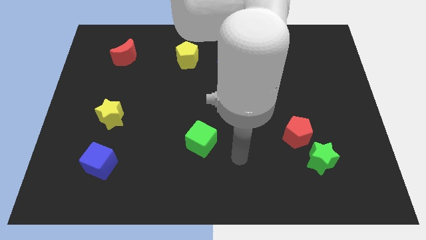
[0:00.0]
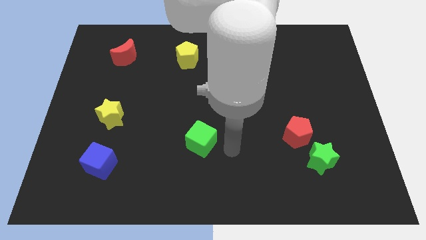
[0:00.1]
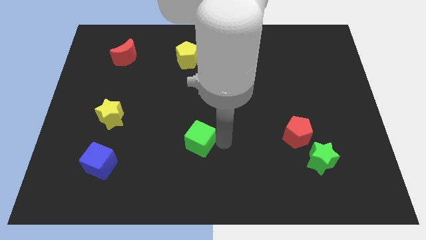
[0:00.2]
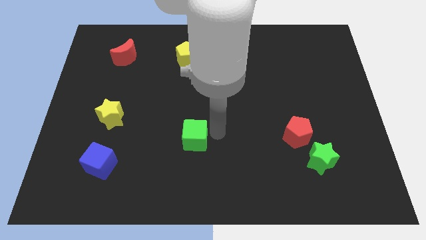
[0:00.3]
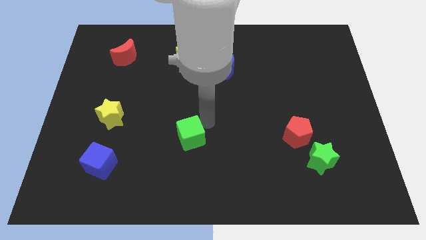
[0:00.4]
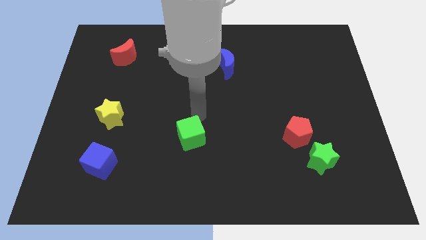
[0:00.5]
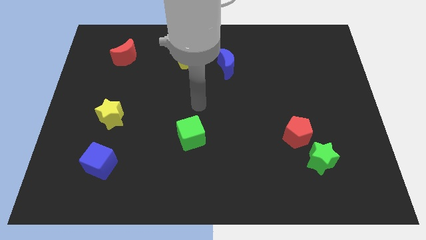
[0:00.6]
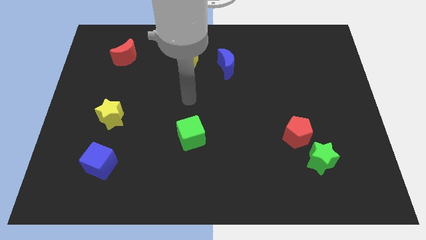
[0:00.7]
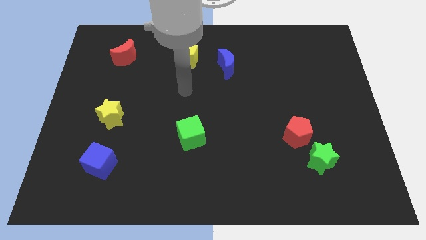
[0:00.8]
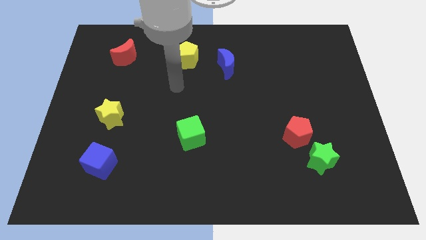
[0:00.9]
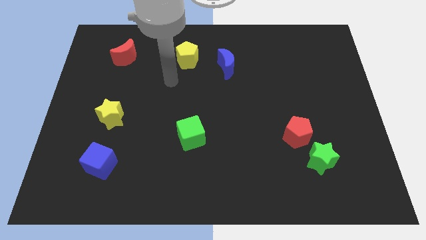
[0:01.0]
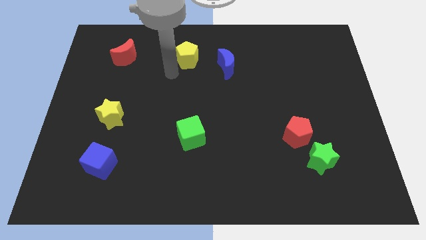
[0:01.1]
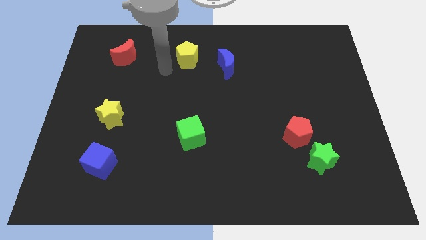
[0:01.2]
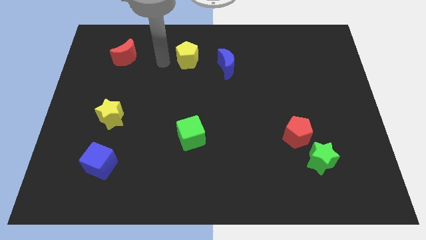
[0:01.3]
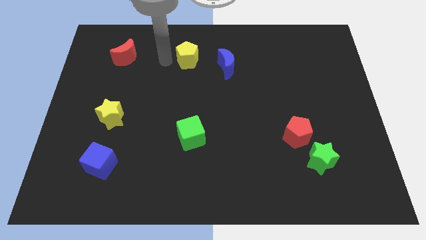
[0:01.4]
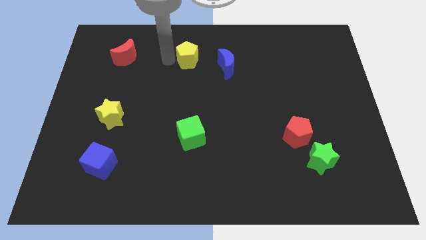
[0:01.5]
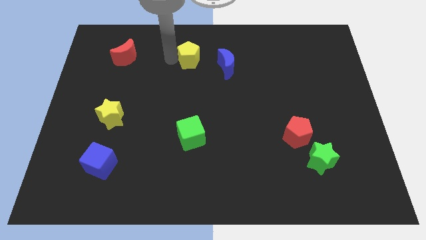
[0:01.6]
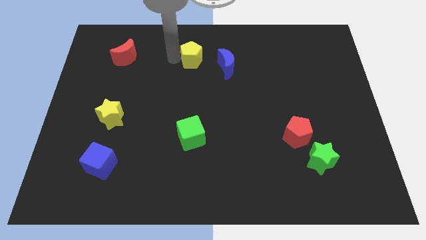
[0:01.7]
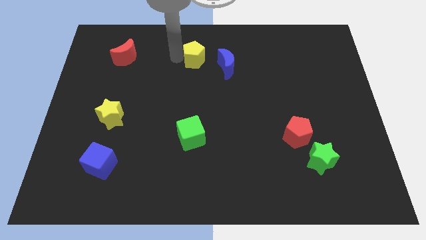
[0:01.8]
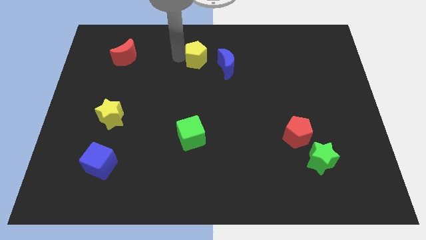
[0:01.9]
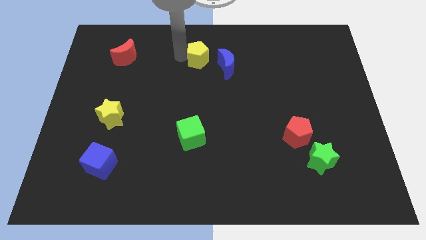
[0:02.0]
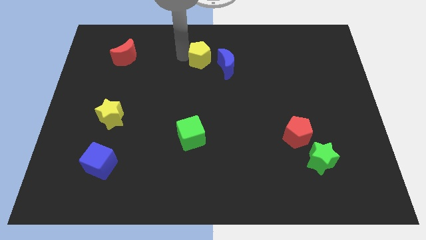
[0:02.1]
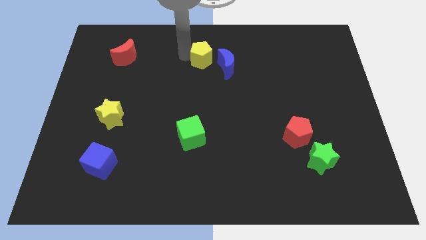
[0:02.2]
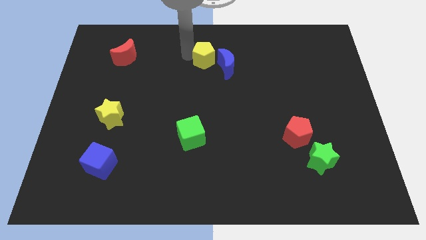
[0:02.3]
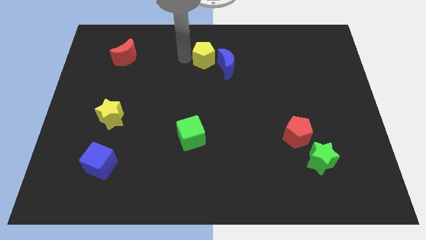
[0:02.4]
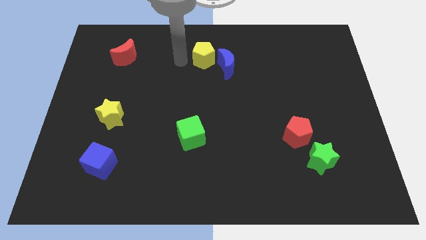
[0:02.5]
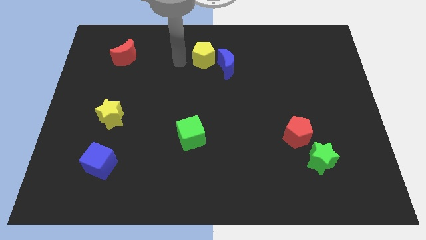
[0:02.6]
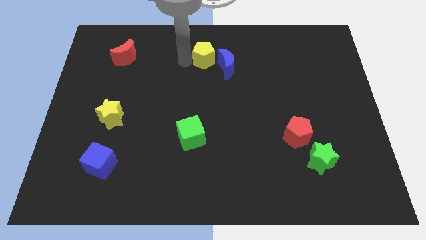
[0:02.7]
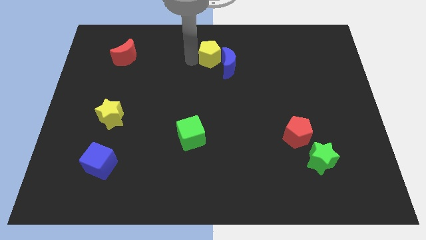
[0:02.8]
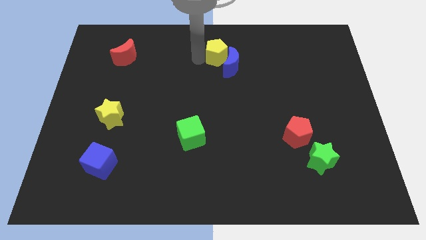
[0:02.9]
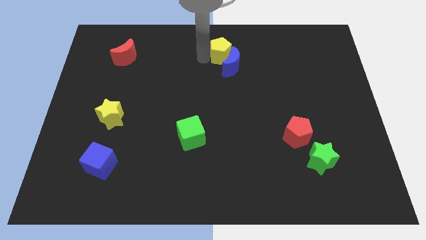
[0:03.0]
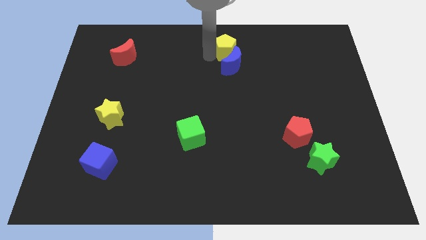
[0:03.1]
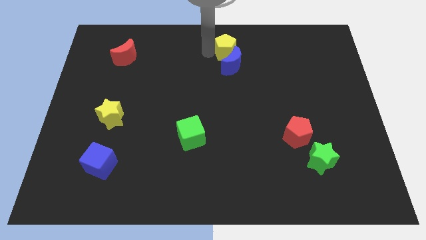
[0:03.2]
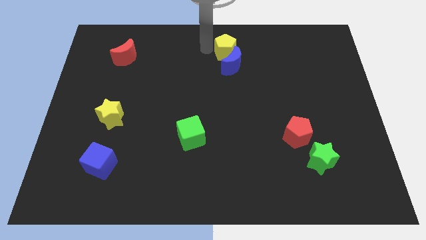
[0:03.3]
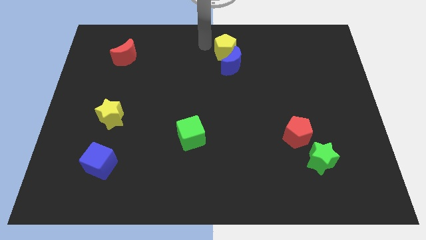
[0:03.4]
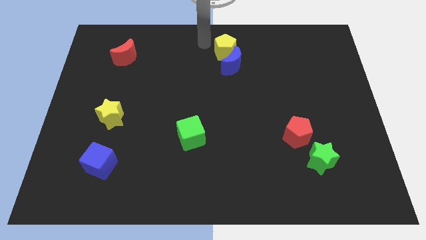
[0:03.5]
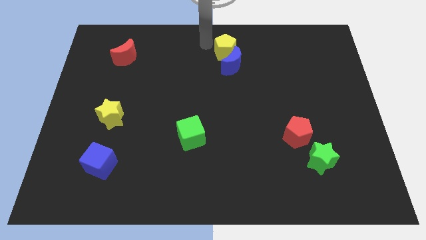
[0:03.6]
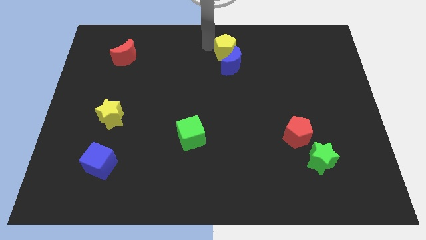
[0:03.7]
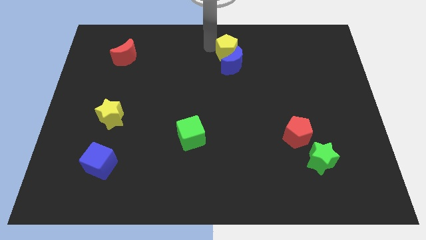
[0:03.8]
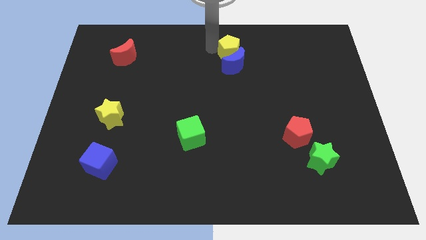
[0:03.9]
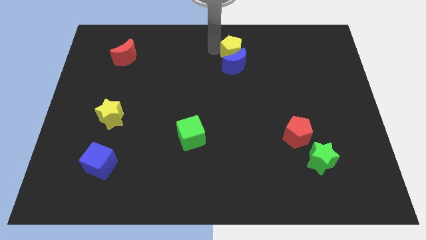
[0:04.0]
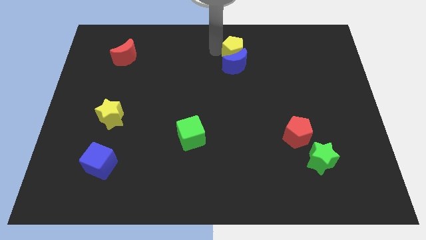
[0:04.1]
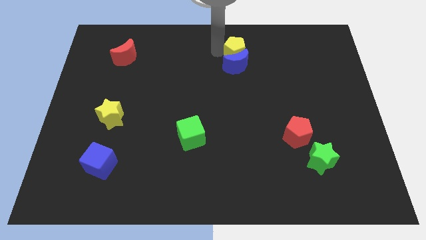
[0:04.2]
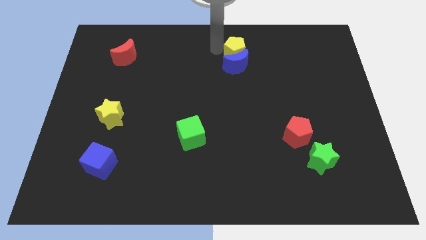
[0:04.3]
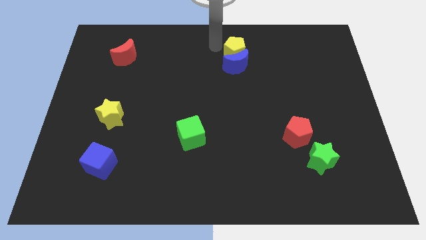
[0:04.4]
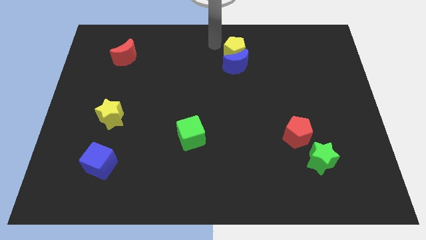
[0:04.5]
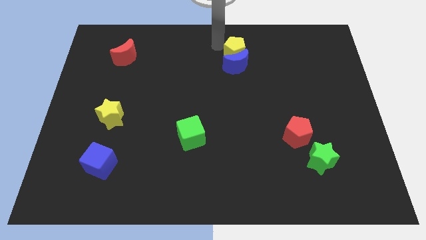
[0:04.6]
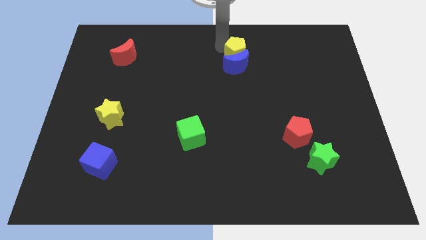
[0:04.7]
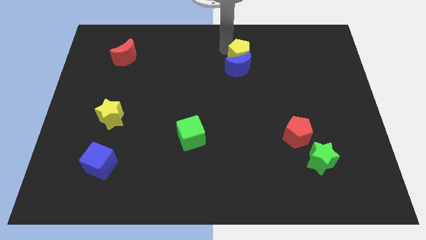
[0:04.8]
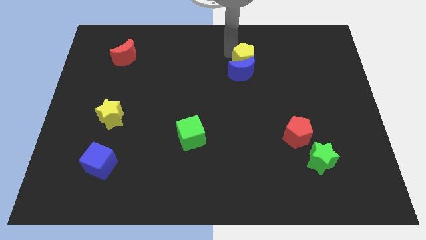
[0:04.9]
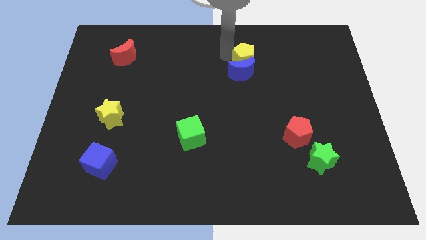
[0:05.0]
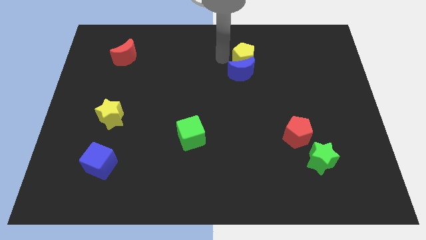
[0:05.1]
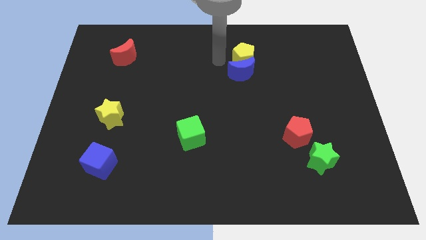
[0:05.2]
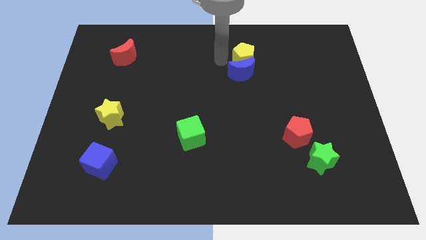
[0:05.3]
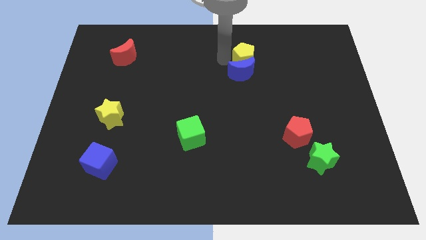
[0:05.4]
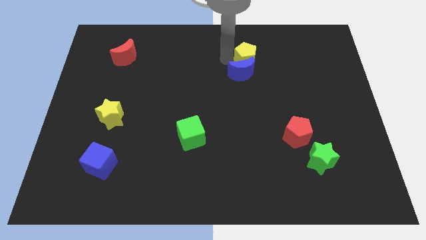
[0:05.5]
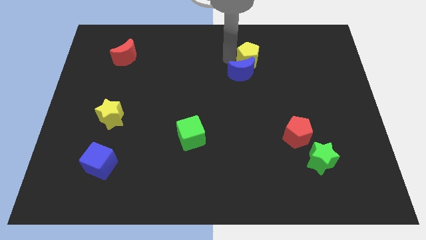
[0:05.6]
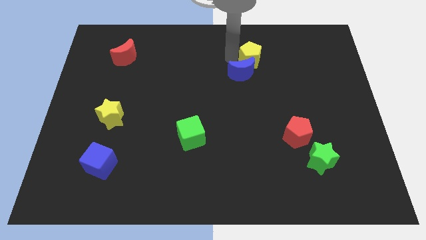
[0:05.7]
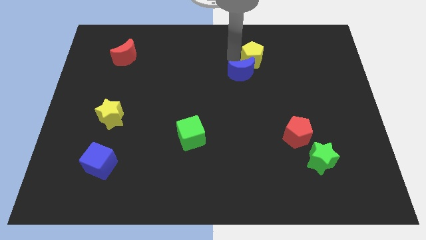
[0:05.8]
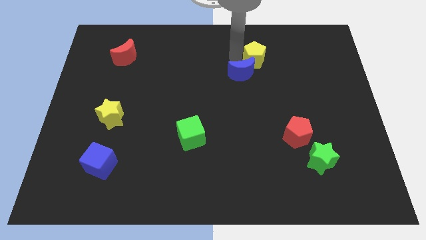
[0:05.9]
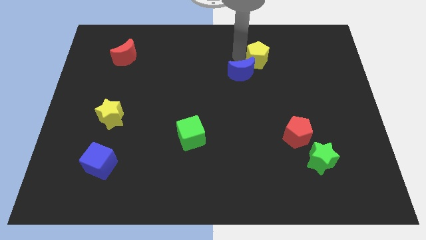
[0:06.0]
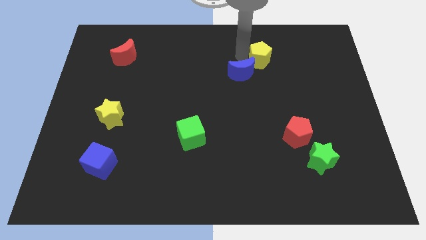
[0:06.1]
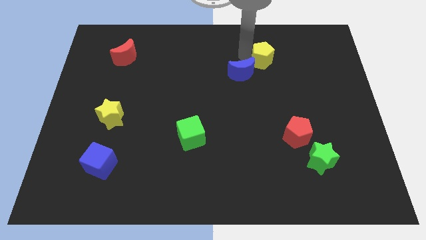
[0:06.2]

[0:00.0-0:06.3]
move the yellow pentagon to the right

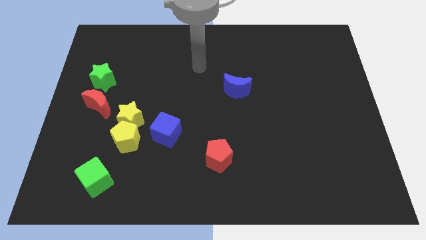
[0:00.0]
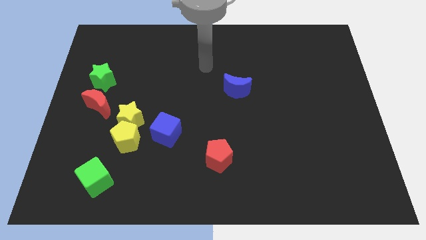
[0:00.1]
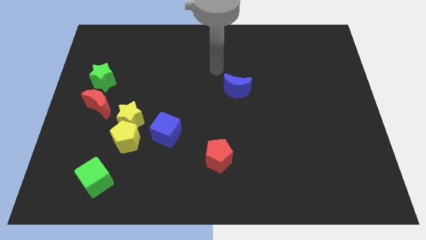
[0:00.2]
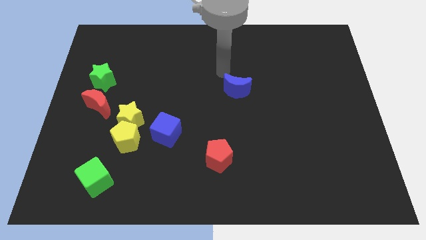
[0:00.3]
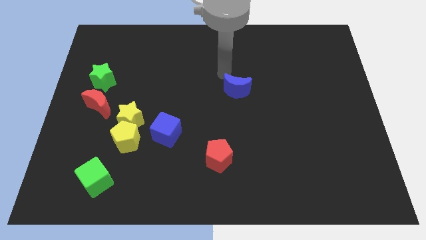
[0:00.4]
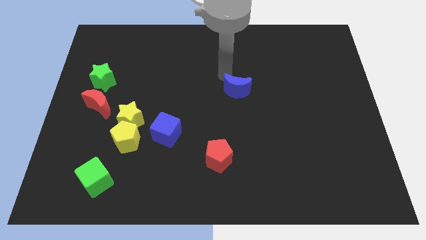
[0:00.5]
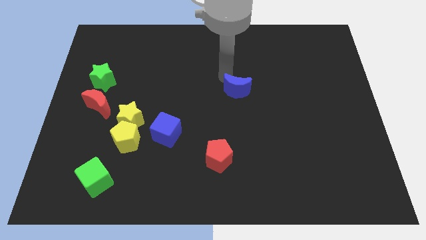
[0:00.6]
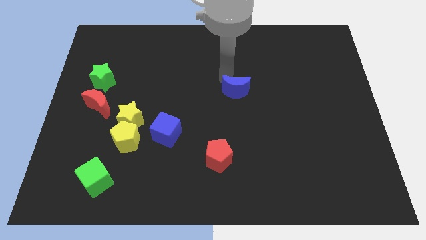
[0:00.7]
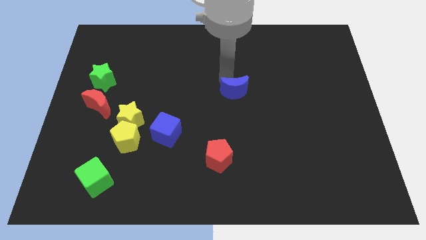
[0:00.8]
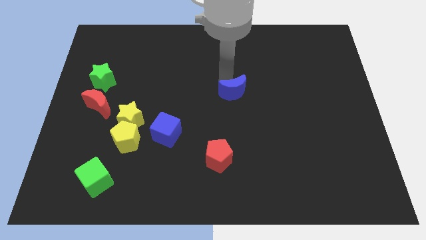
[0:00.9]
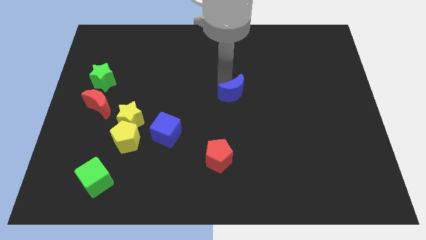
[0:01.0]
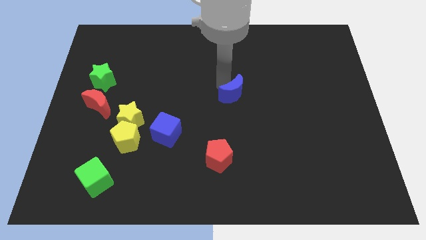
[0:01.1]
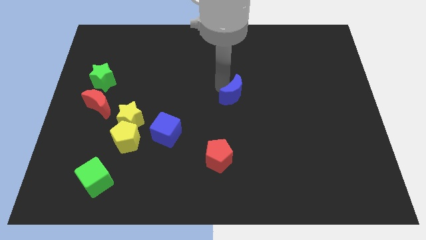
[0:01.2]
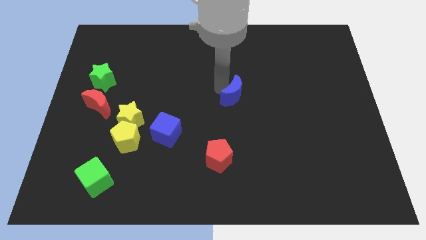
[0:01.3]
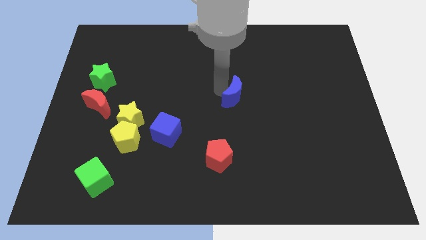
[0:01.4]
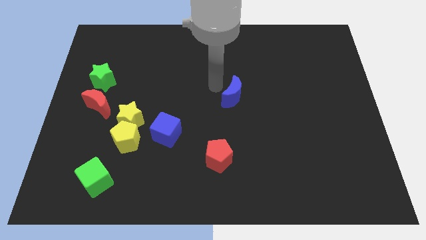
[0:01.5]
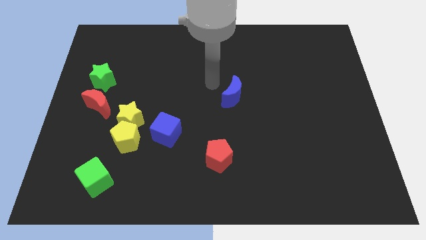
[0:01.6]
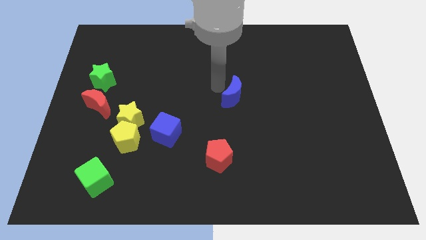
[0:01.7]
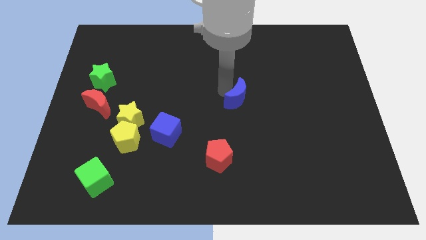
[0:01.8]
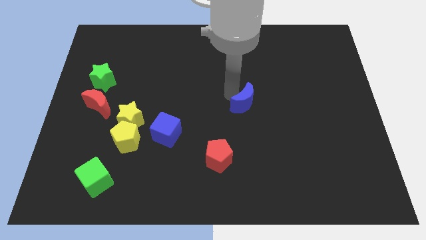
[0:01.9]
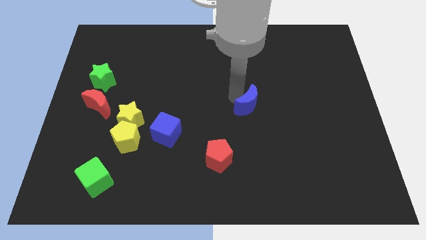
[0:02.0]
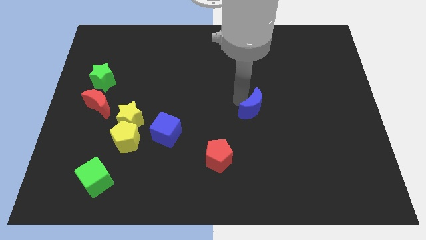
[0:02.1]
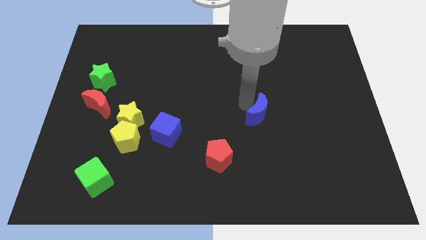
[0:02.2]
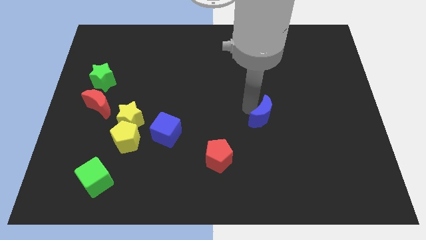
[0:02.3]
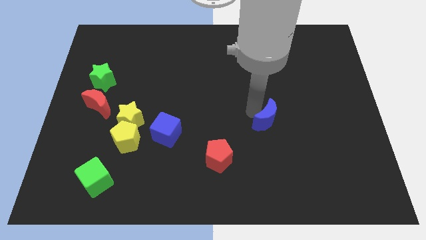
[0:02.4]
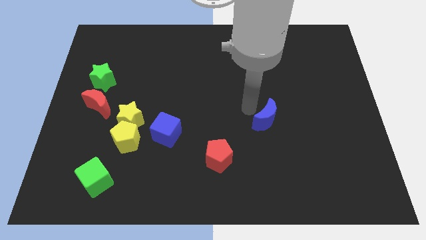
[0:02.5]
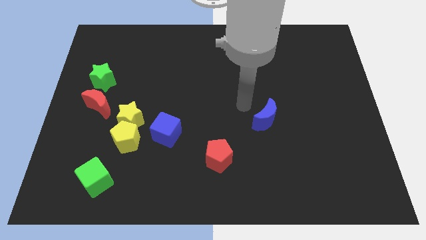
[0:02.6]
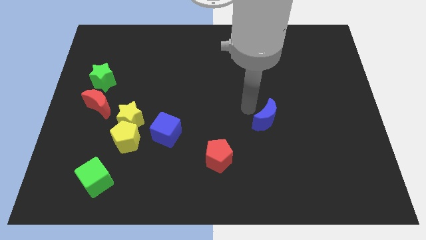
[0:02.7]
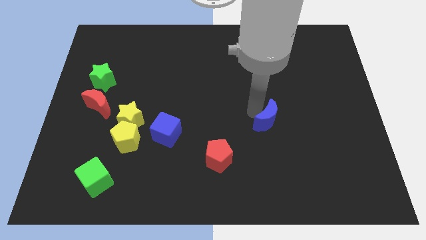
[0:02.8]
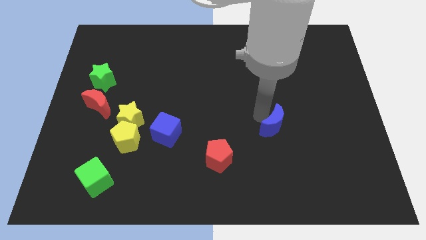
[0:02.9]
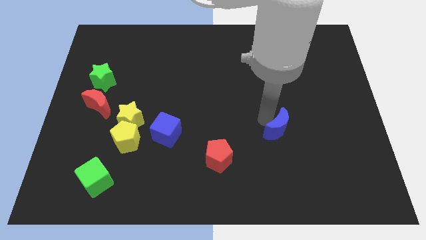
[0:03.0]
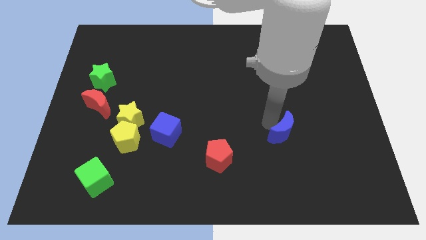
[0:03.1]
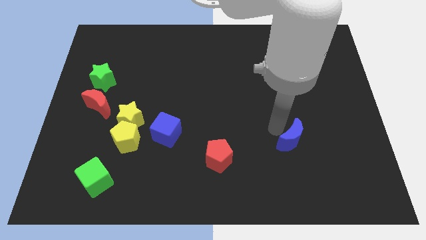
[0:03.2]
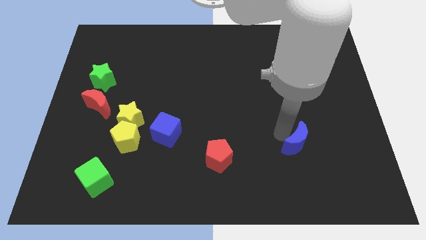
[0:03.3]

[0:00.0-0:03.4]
move the blue moon diagonally downwards and right
